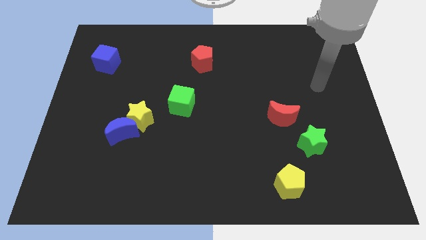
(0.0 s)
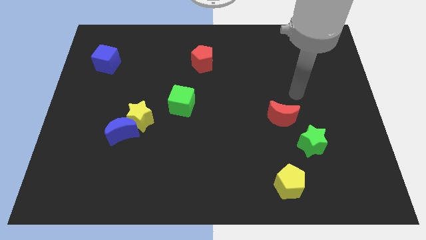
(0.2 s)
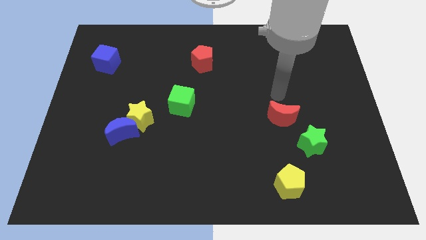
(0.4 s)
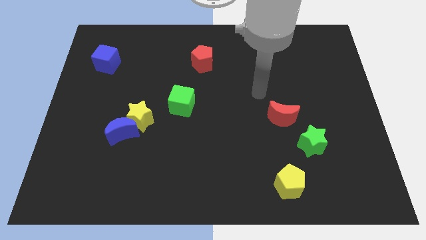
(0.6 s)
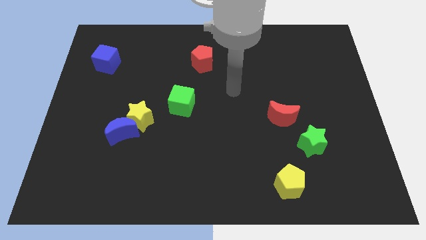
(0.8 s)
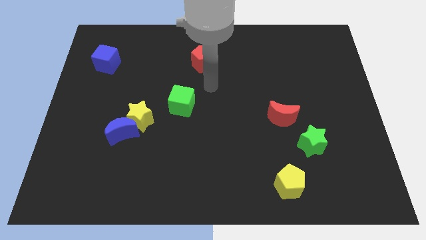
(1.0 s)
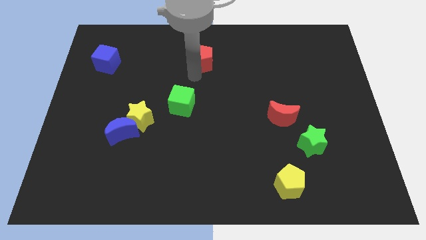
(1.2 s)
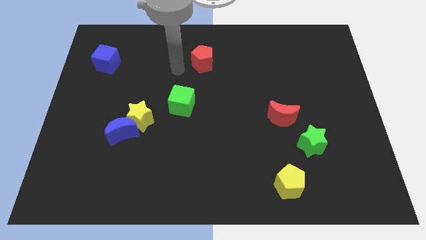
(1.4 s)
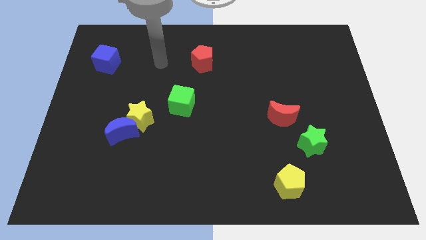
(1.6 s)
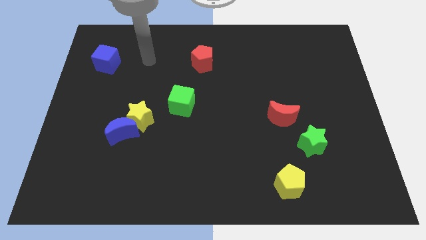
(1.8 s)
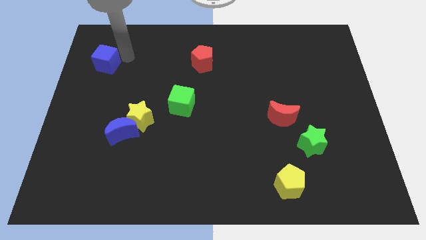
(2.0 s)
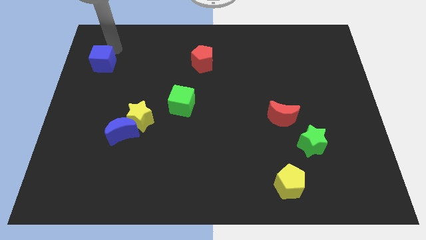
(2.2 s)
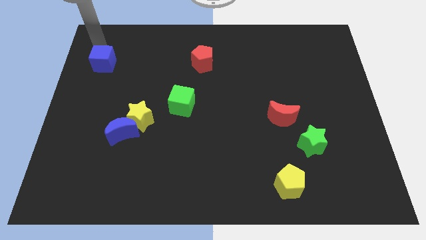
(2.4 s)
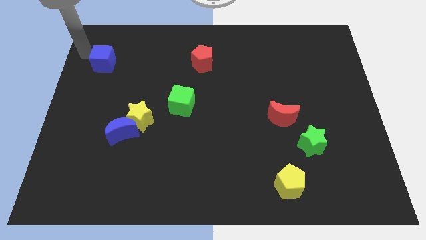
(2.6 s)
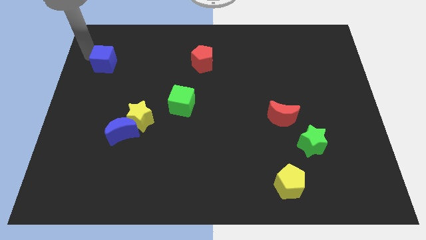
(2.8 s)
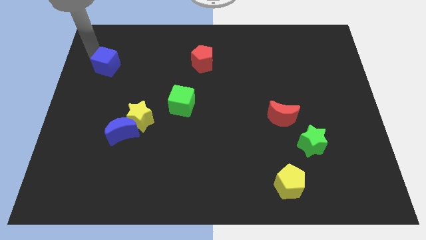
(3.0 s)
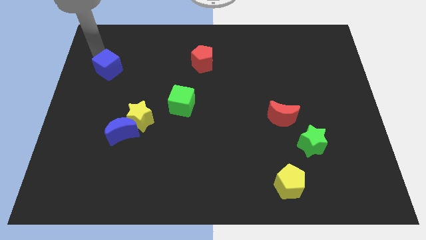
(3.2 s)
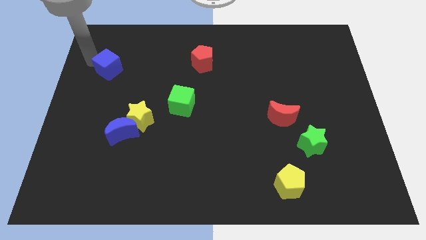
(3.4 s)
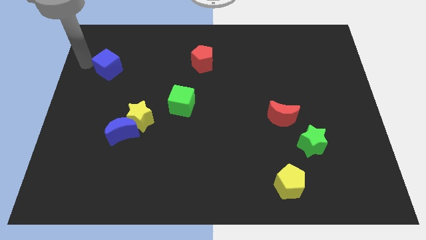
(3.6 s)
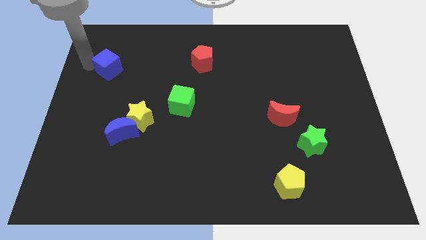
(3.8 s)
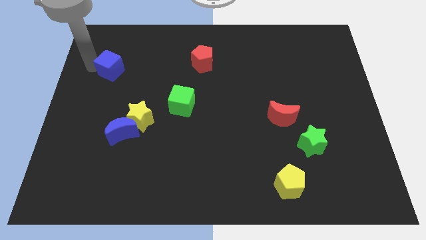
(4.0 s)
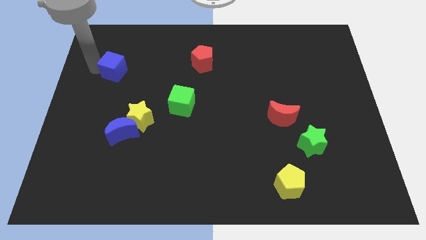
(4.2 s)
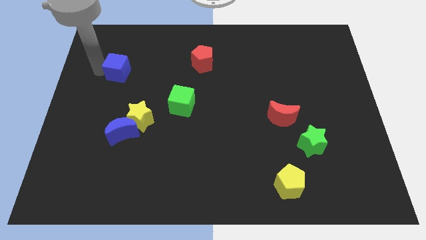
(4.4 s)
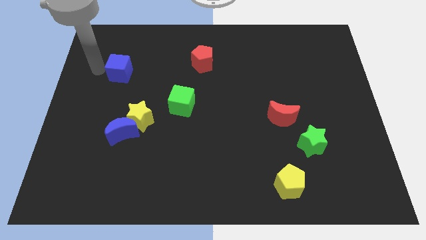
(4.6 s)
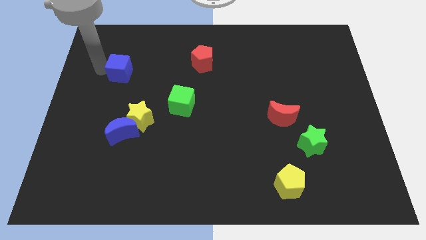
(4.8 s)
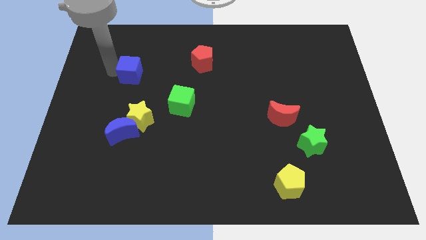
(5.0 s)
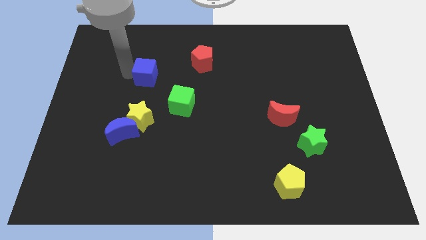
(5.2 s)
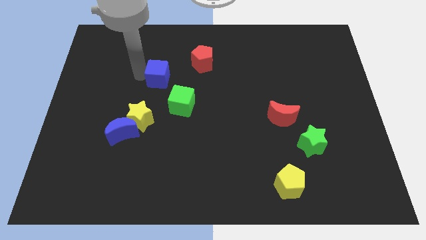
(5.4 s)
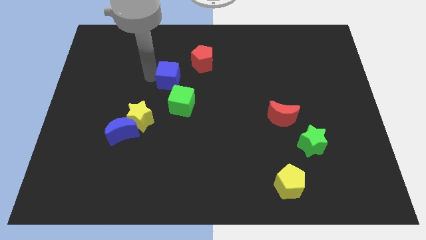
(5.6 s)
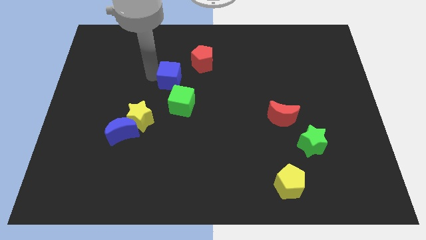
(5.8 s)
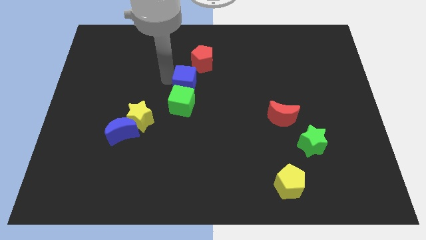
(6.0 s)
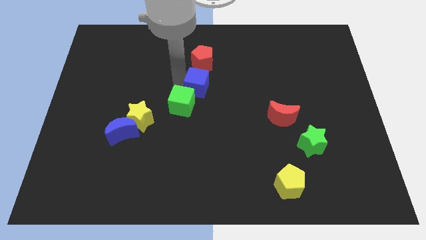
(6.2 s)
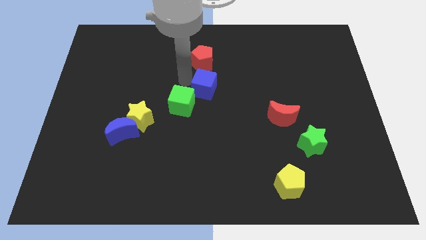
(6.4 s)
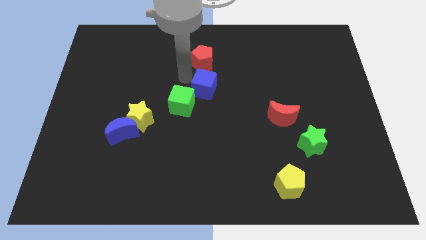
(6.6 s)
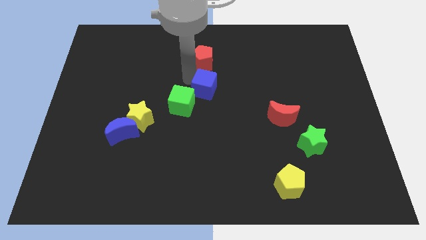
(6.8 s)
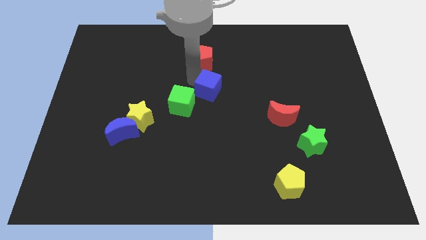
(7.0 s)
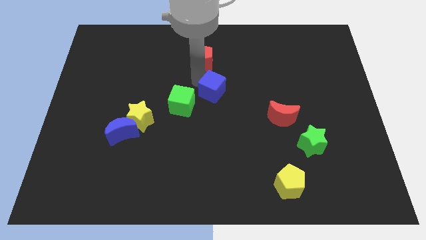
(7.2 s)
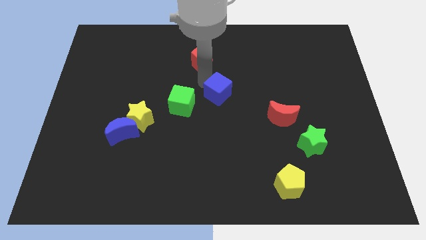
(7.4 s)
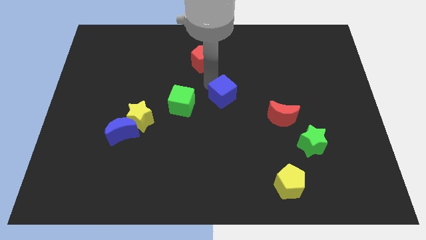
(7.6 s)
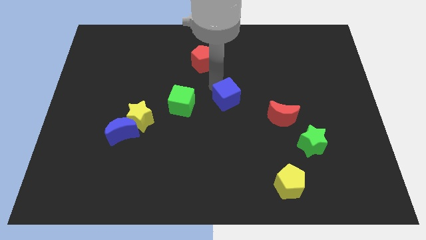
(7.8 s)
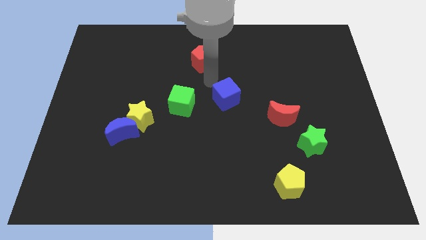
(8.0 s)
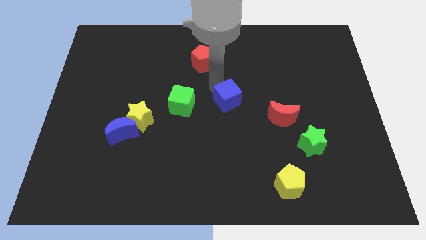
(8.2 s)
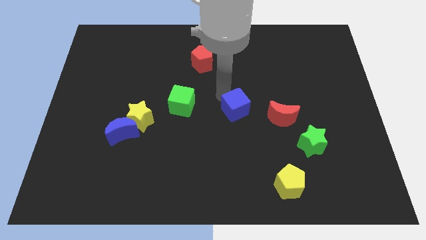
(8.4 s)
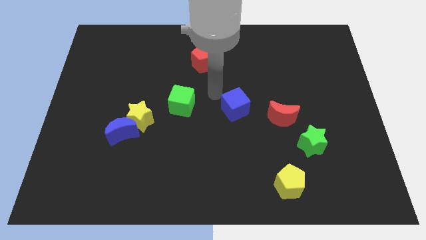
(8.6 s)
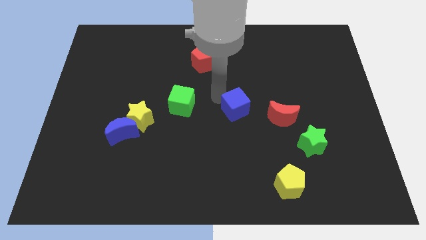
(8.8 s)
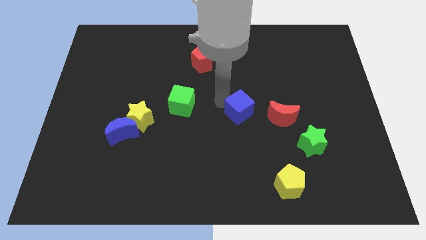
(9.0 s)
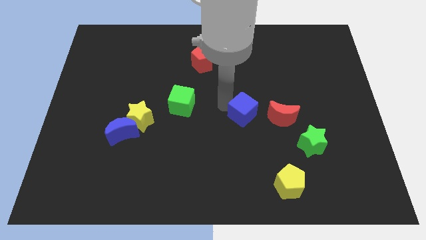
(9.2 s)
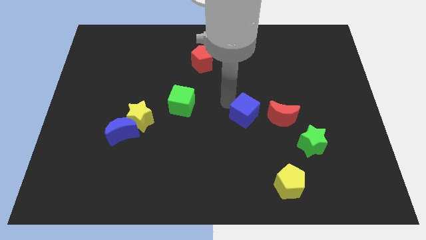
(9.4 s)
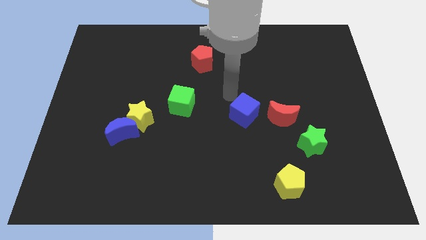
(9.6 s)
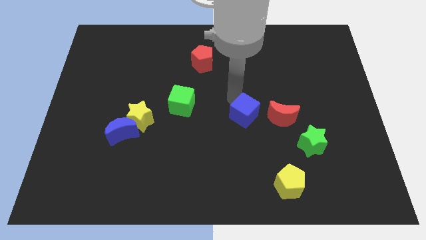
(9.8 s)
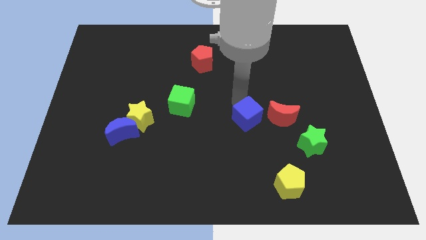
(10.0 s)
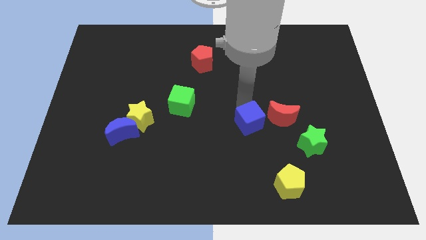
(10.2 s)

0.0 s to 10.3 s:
slide the blue cube to the bottom left of the red moon

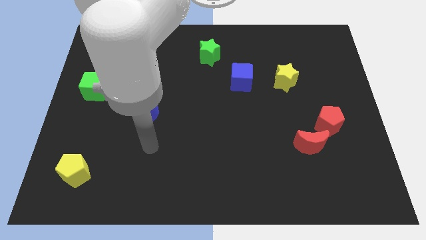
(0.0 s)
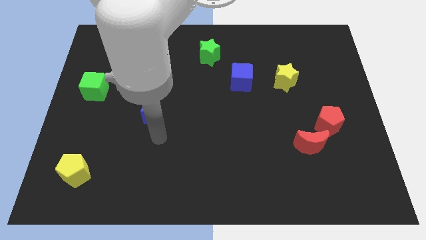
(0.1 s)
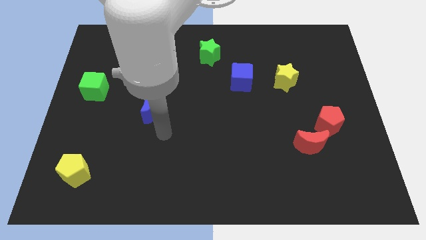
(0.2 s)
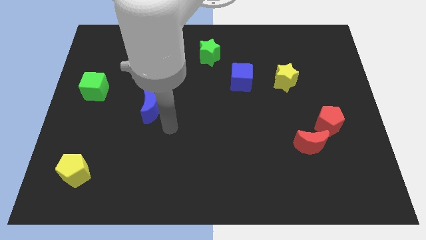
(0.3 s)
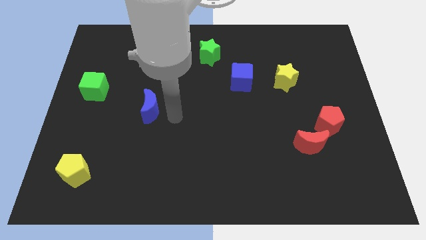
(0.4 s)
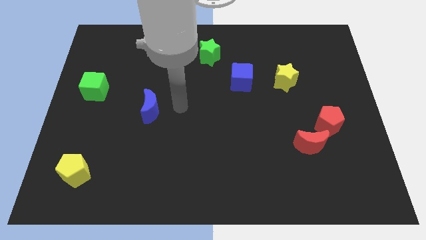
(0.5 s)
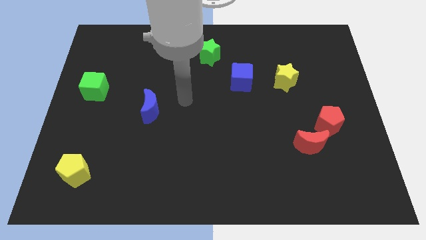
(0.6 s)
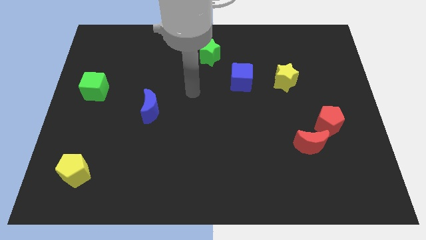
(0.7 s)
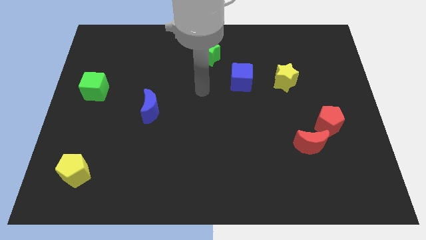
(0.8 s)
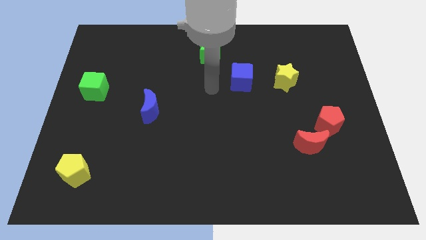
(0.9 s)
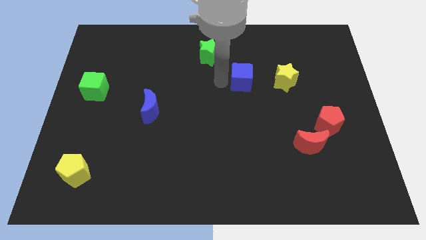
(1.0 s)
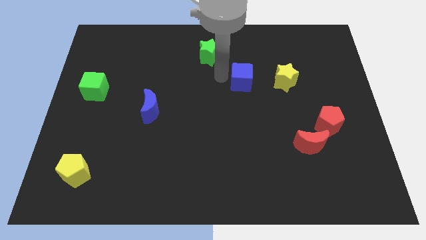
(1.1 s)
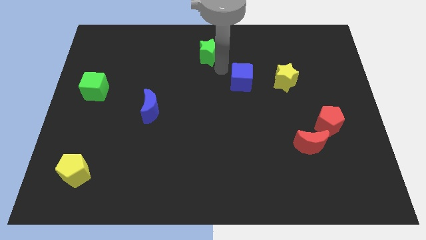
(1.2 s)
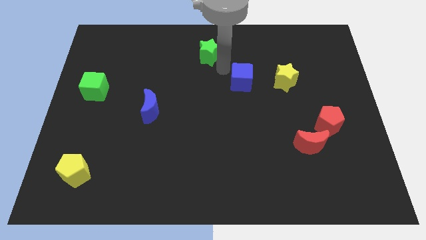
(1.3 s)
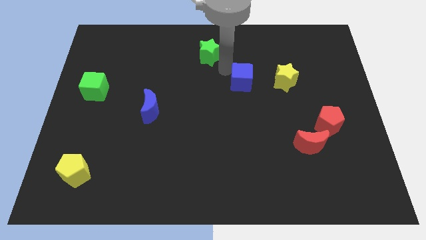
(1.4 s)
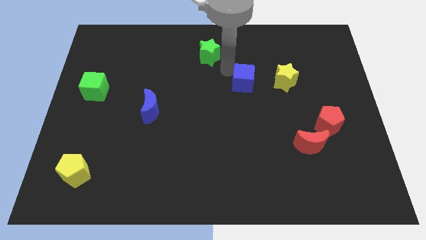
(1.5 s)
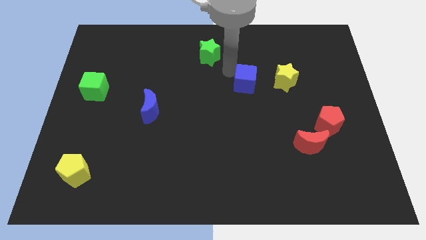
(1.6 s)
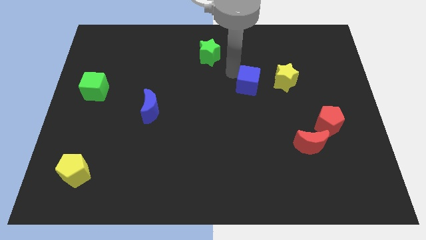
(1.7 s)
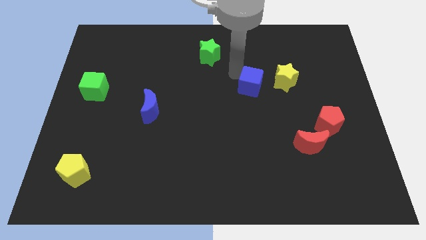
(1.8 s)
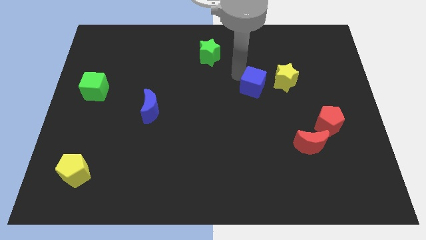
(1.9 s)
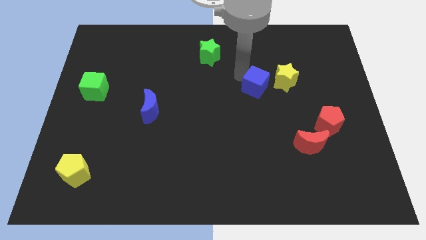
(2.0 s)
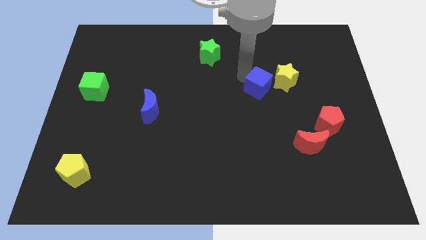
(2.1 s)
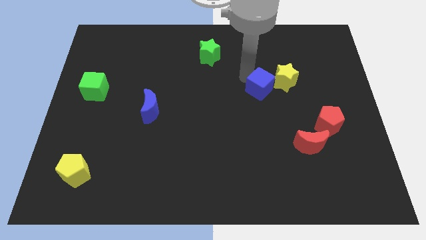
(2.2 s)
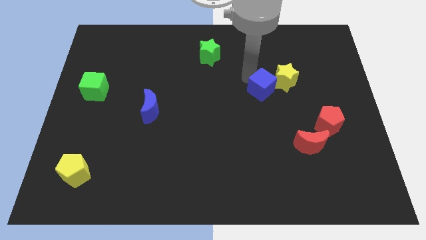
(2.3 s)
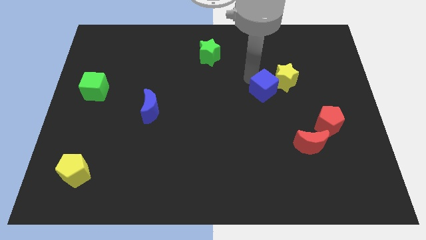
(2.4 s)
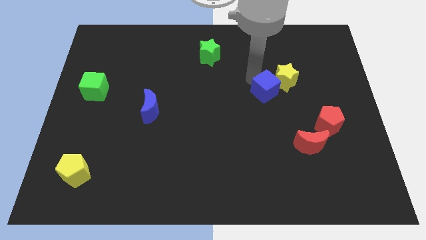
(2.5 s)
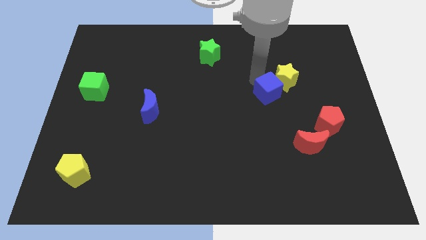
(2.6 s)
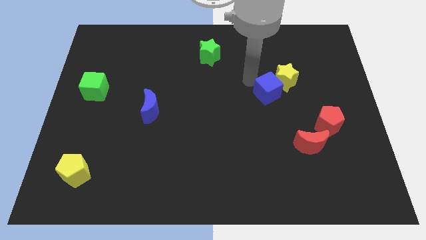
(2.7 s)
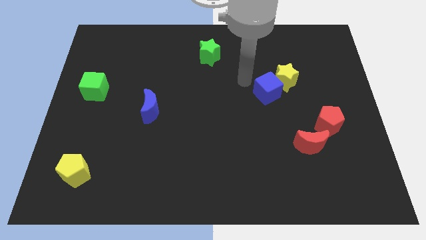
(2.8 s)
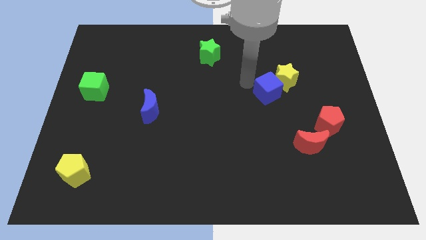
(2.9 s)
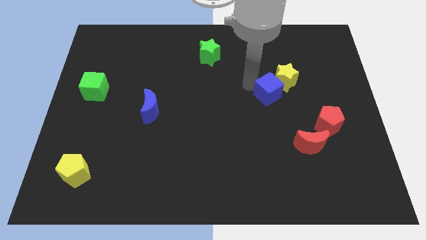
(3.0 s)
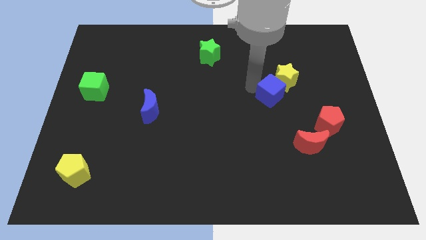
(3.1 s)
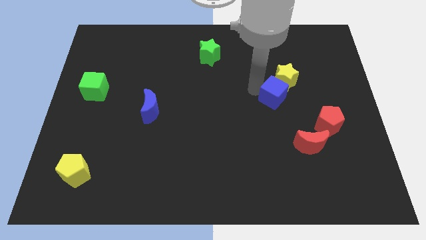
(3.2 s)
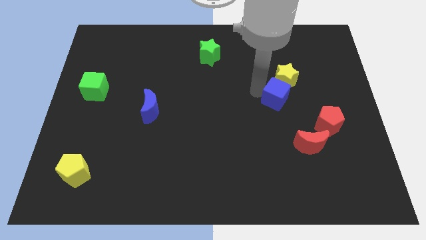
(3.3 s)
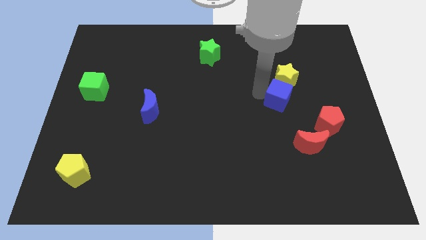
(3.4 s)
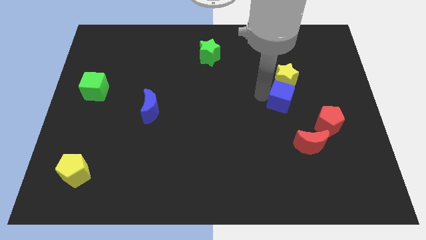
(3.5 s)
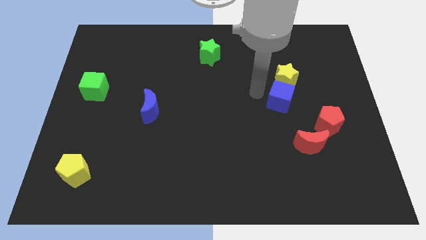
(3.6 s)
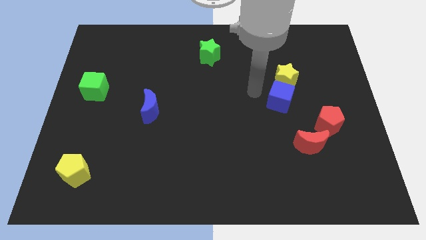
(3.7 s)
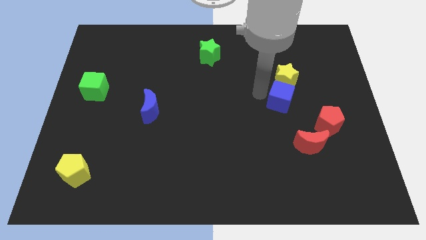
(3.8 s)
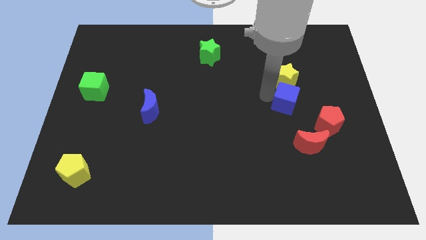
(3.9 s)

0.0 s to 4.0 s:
slide the blue cube above the red moon
